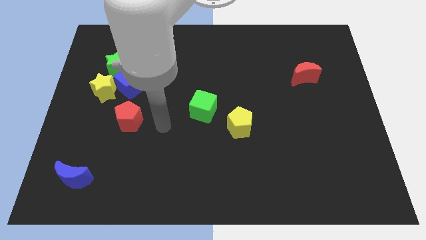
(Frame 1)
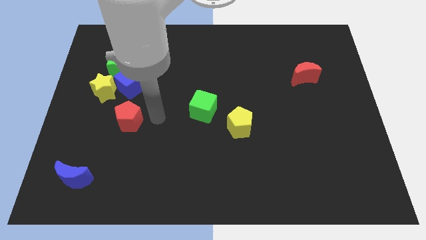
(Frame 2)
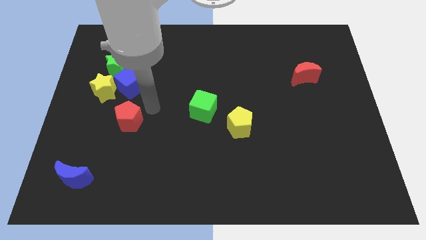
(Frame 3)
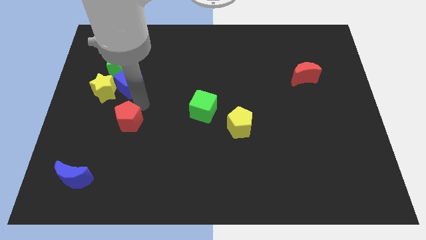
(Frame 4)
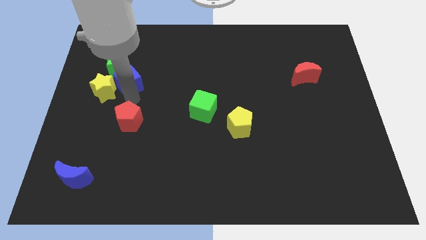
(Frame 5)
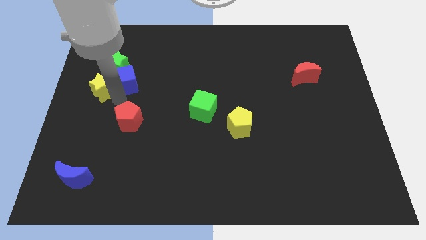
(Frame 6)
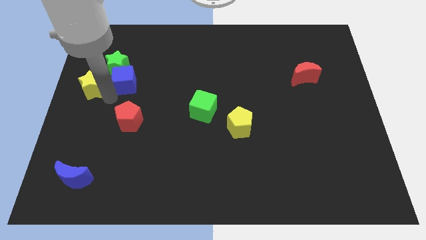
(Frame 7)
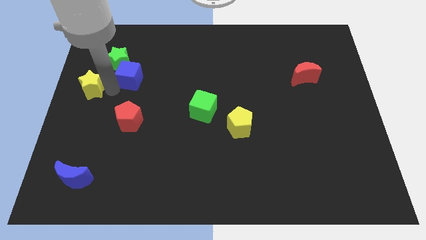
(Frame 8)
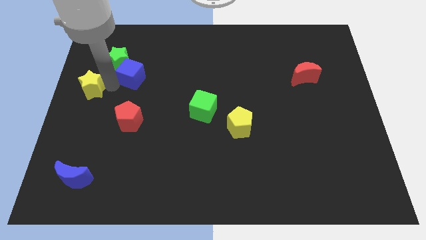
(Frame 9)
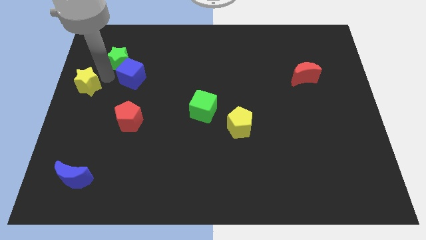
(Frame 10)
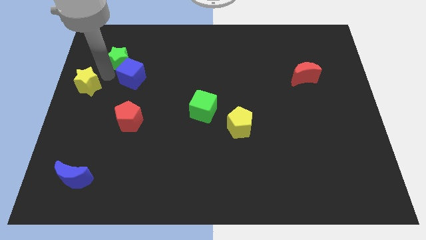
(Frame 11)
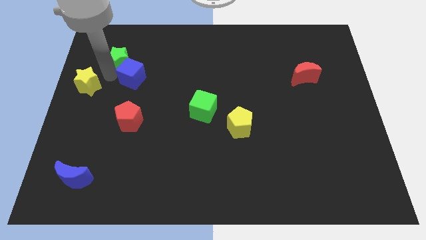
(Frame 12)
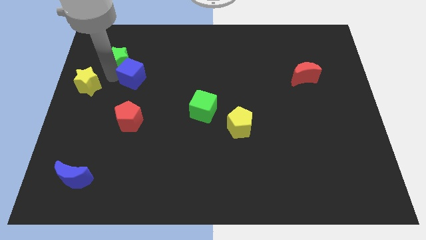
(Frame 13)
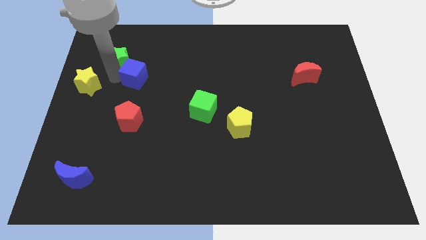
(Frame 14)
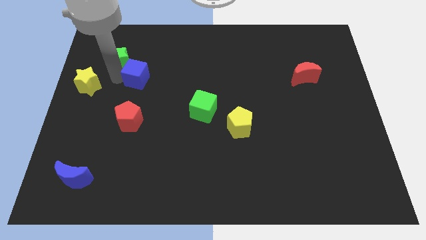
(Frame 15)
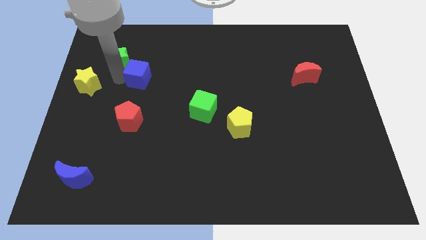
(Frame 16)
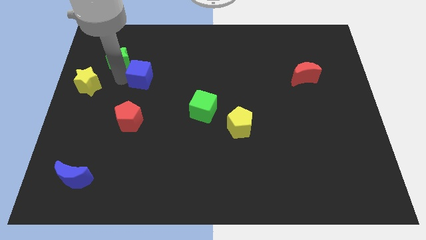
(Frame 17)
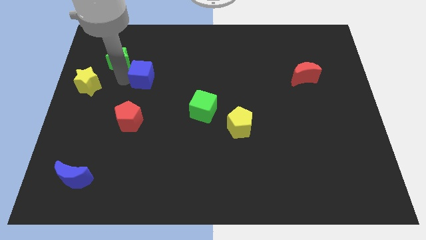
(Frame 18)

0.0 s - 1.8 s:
move the blue cube away from the yellow star and green star

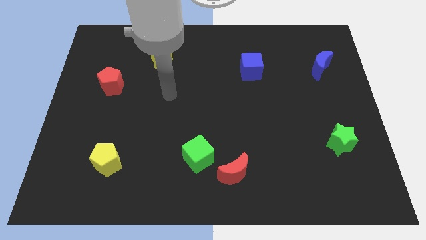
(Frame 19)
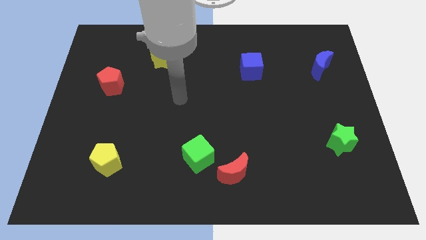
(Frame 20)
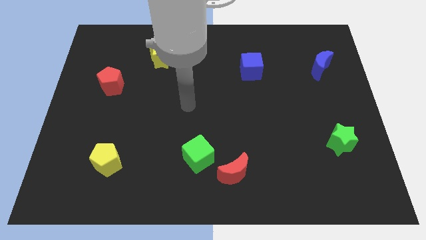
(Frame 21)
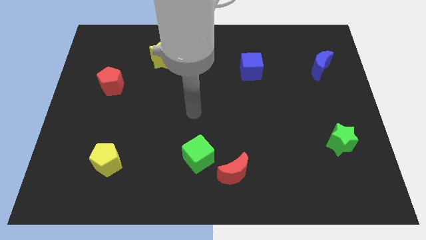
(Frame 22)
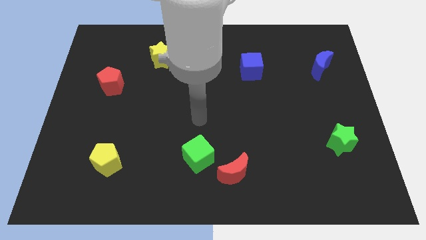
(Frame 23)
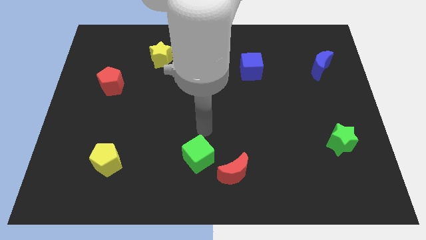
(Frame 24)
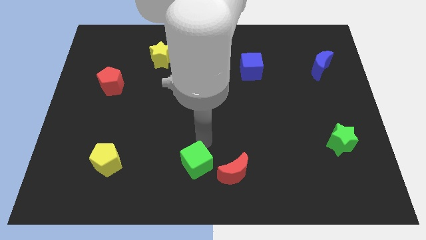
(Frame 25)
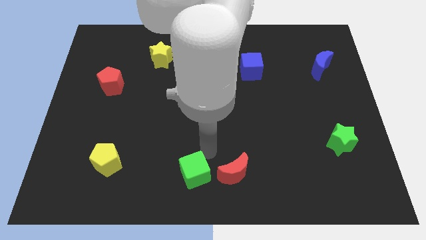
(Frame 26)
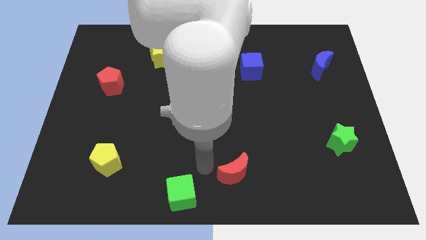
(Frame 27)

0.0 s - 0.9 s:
separate the red moon from the green cube

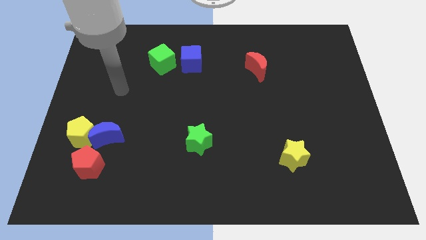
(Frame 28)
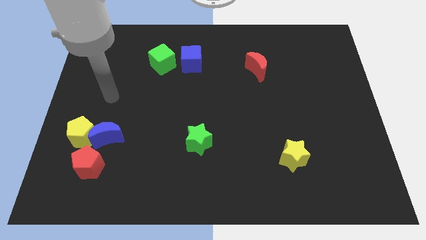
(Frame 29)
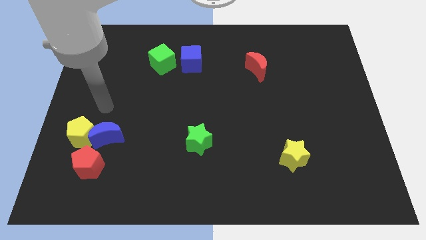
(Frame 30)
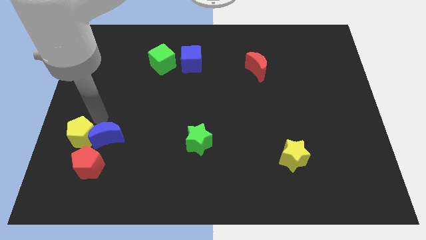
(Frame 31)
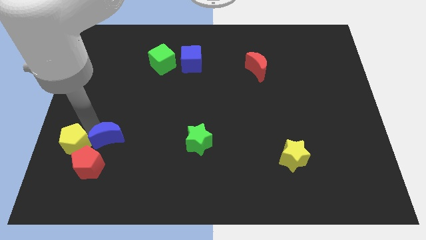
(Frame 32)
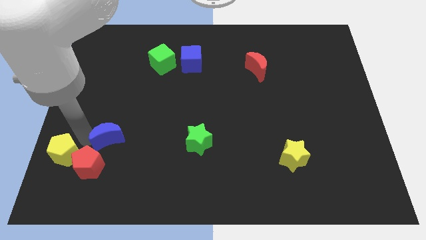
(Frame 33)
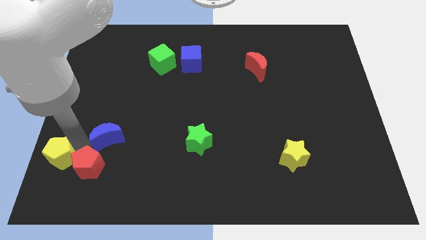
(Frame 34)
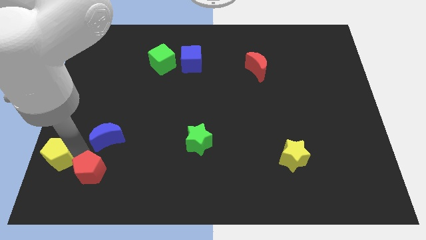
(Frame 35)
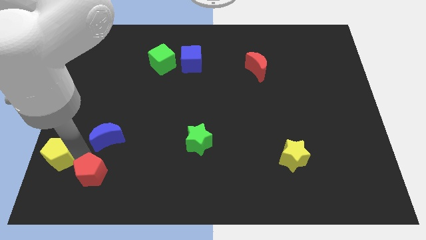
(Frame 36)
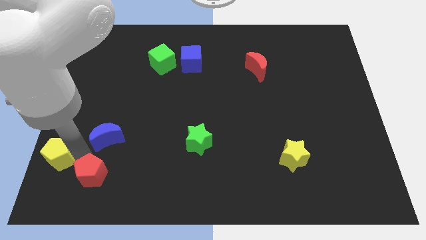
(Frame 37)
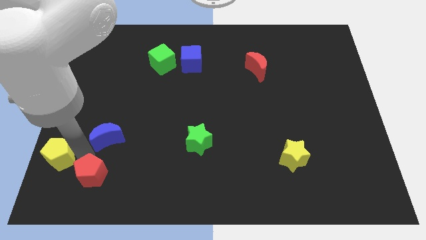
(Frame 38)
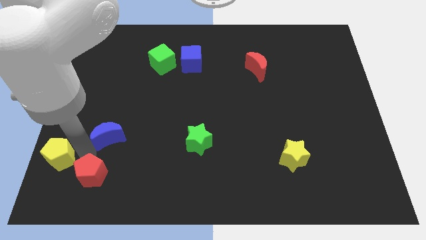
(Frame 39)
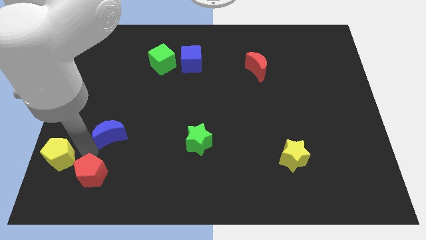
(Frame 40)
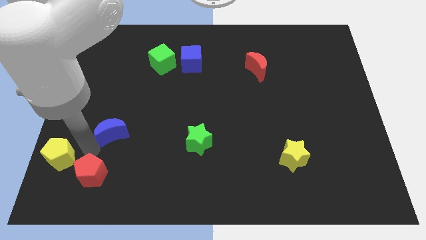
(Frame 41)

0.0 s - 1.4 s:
pull the blue moon apart from the yellow pentagon and red pentagon

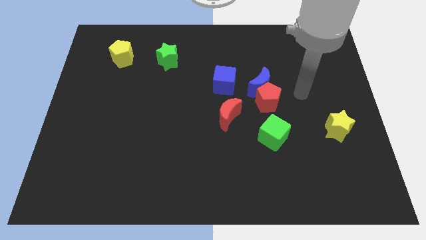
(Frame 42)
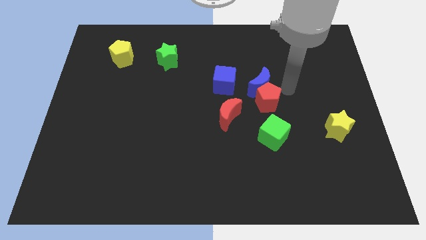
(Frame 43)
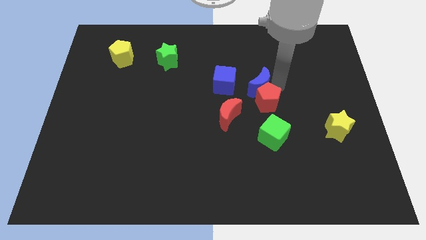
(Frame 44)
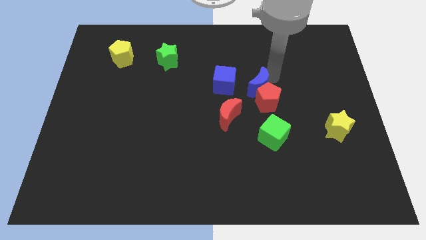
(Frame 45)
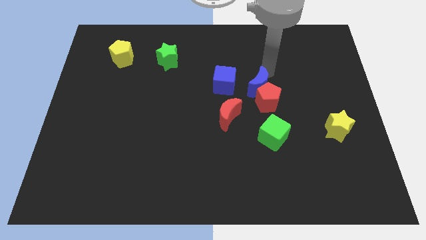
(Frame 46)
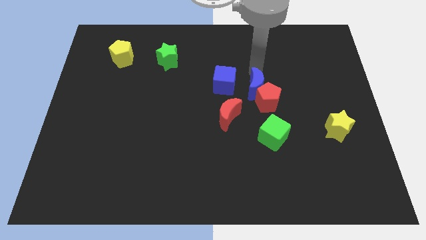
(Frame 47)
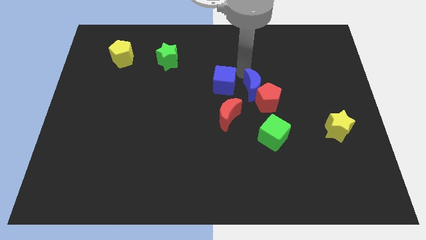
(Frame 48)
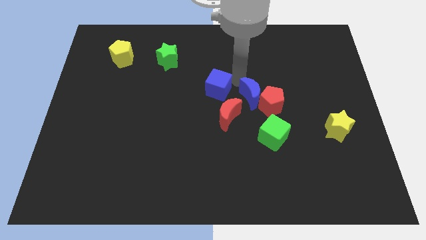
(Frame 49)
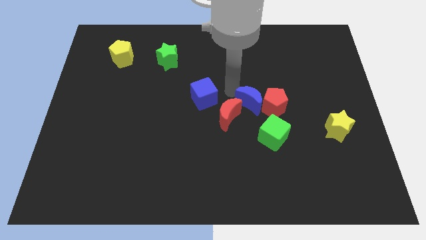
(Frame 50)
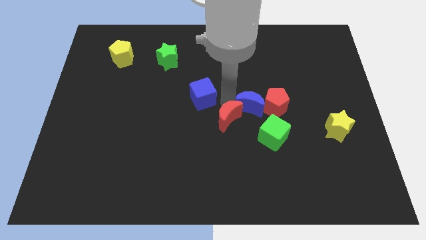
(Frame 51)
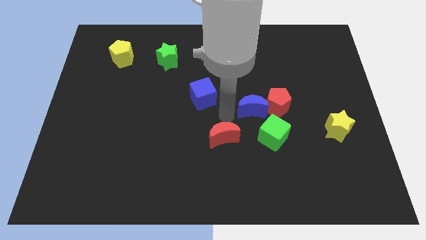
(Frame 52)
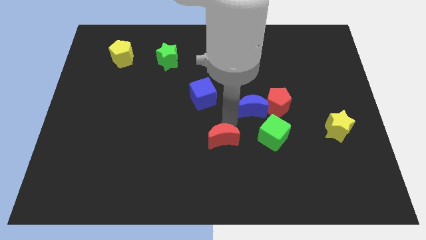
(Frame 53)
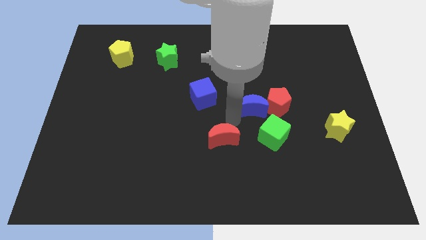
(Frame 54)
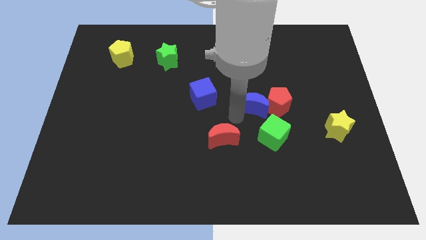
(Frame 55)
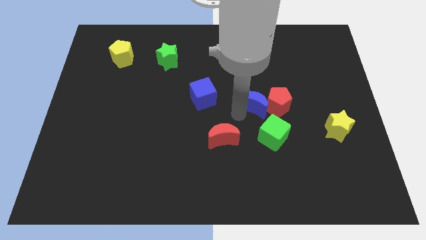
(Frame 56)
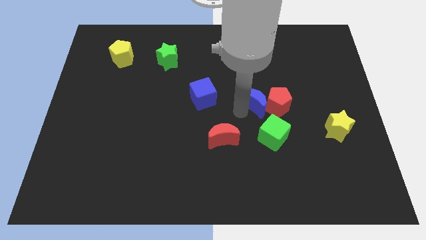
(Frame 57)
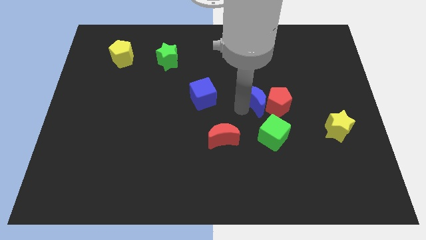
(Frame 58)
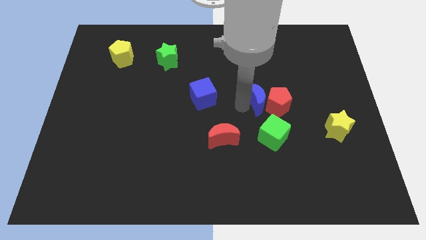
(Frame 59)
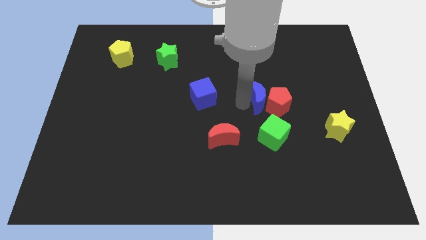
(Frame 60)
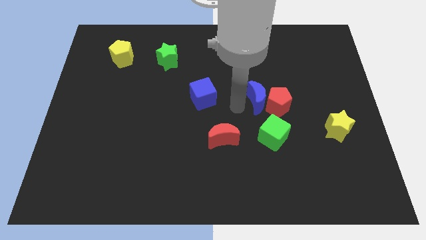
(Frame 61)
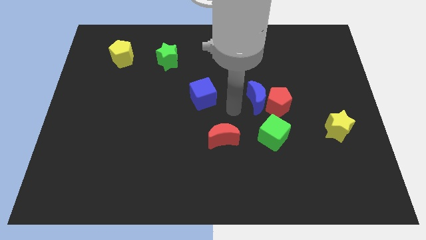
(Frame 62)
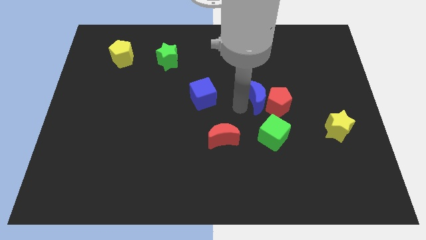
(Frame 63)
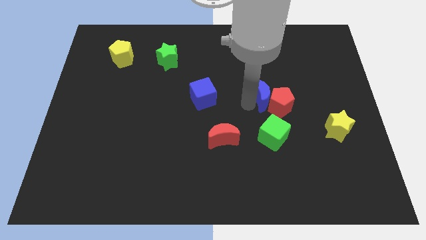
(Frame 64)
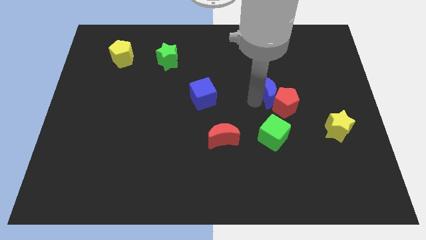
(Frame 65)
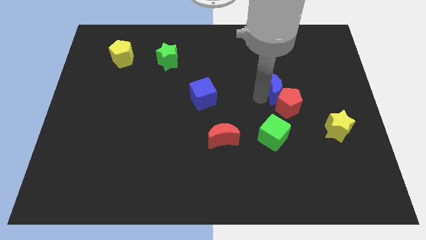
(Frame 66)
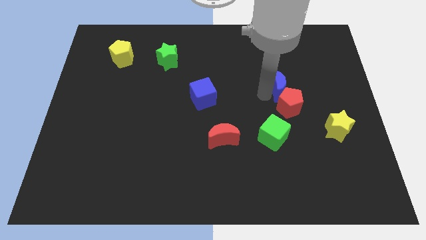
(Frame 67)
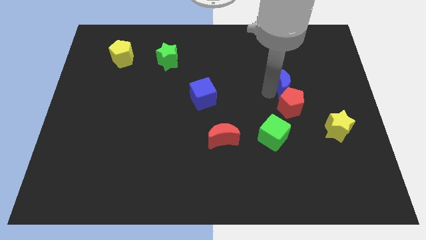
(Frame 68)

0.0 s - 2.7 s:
move the blue moon away from the red pentagon and blue cube

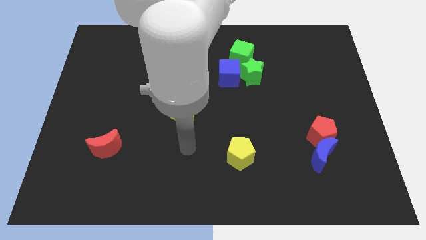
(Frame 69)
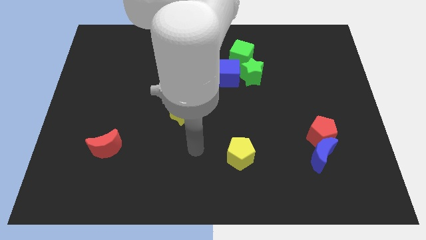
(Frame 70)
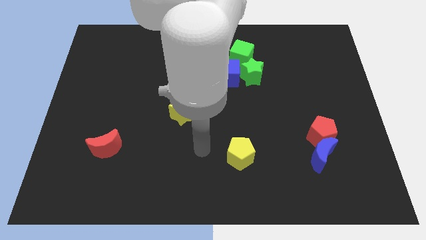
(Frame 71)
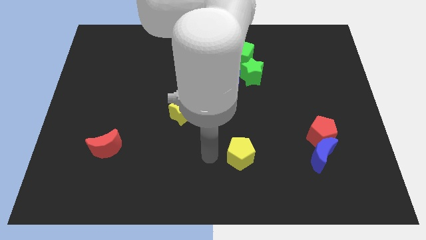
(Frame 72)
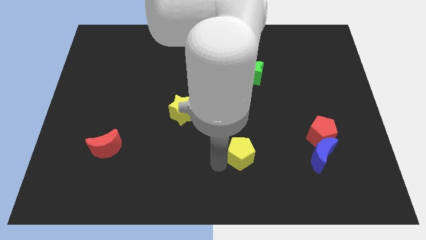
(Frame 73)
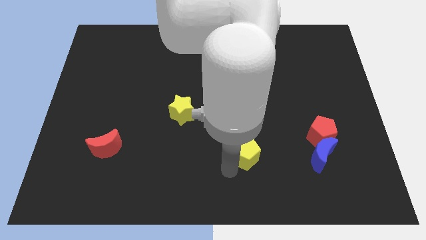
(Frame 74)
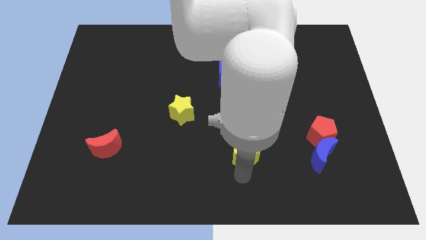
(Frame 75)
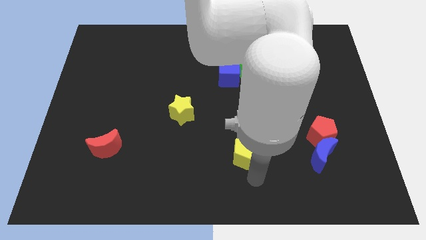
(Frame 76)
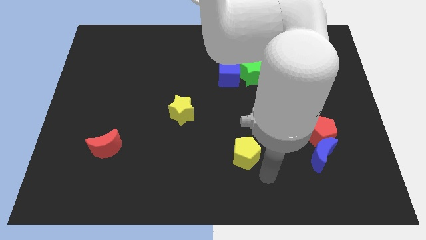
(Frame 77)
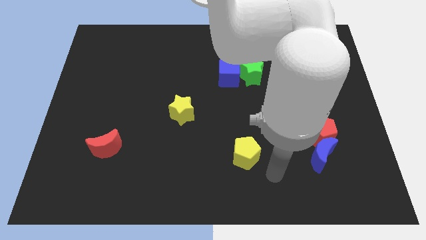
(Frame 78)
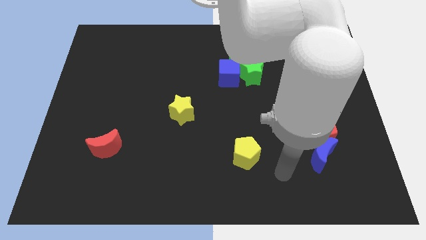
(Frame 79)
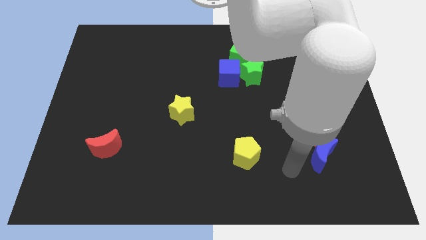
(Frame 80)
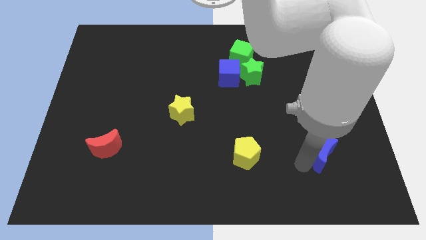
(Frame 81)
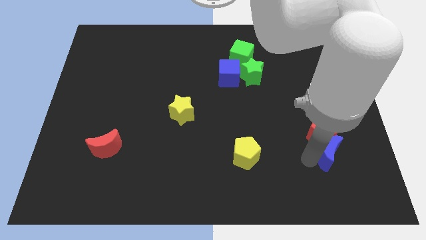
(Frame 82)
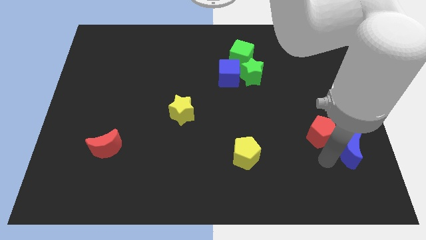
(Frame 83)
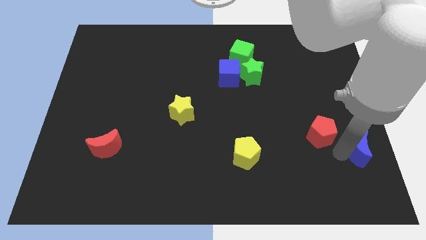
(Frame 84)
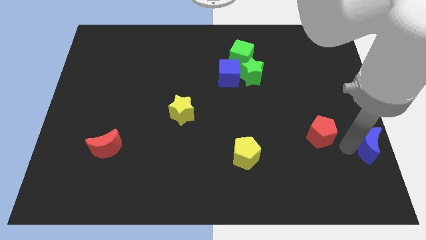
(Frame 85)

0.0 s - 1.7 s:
move the red pentagon away from the blue moon

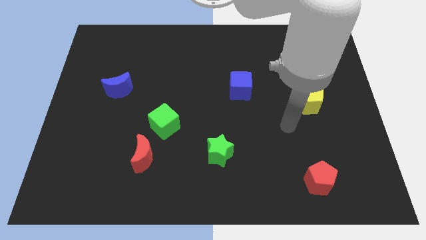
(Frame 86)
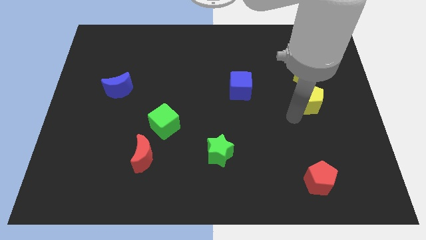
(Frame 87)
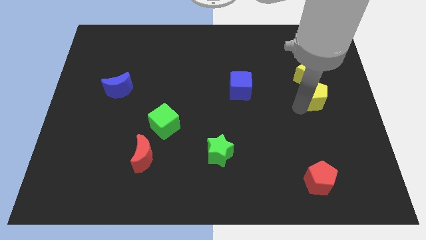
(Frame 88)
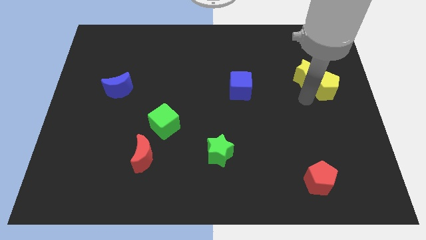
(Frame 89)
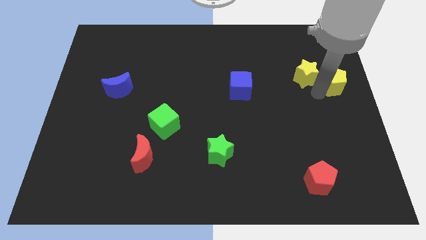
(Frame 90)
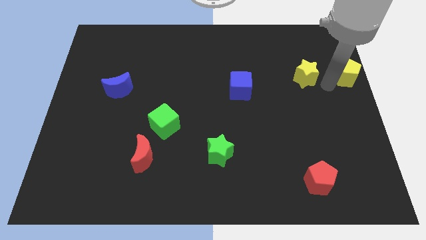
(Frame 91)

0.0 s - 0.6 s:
separate the yellow star from the yellow pentagon

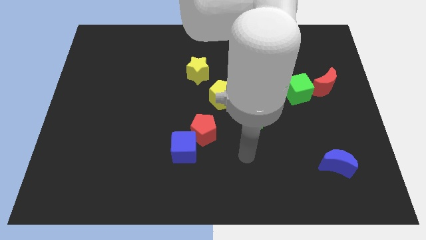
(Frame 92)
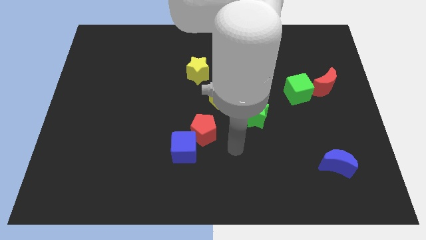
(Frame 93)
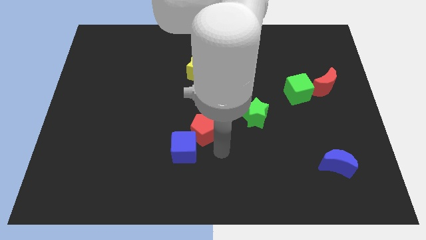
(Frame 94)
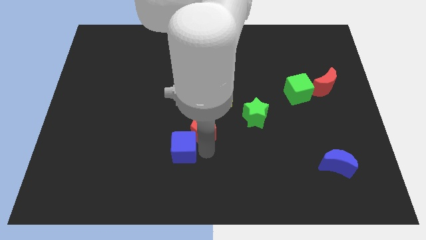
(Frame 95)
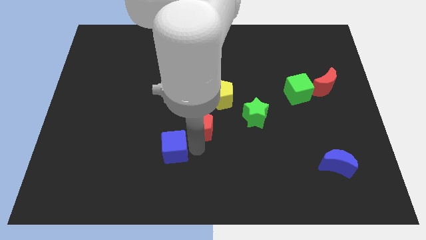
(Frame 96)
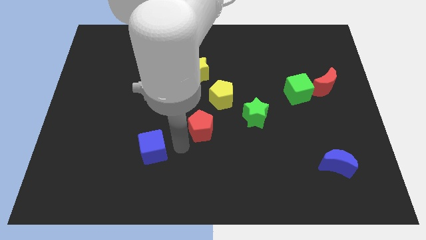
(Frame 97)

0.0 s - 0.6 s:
pull the red pentagon apart from the blue cube
